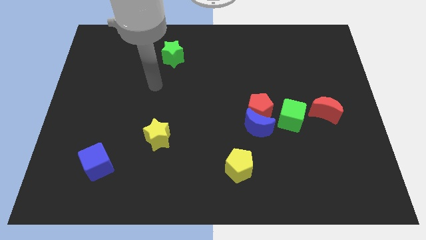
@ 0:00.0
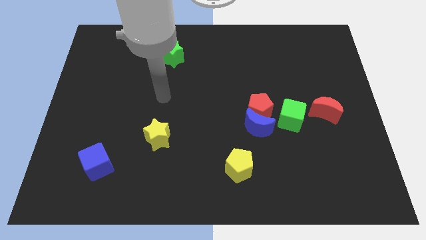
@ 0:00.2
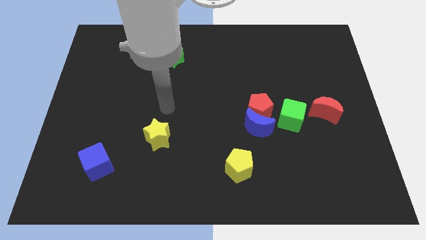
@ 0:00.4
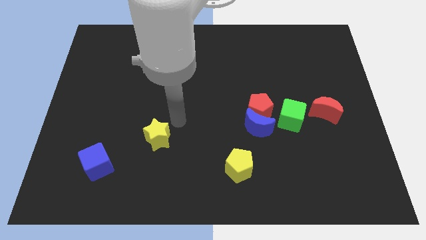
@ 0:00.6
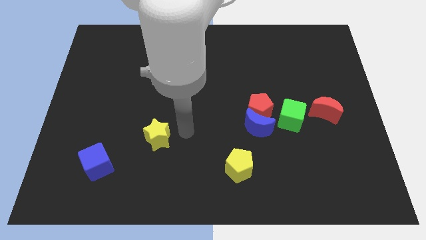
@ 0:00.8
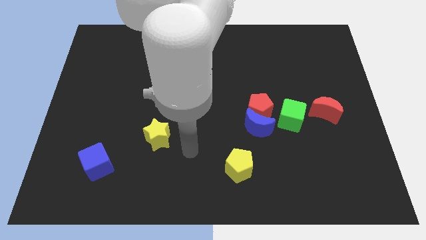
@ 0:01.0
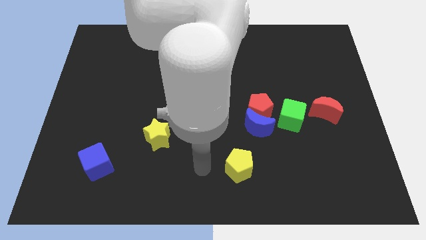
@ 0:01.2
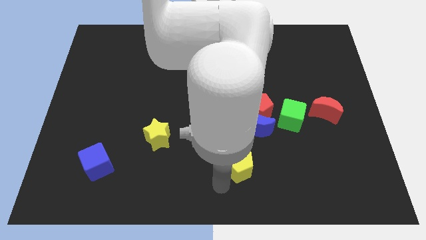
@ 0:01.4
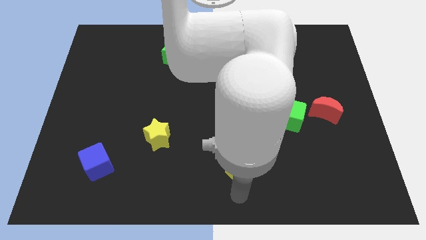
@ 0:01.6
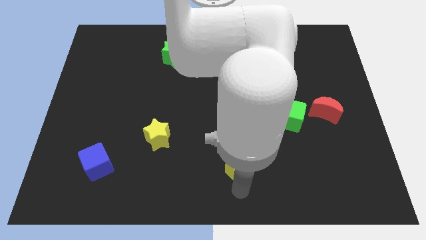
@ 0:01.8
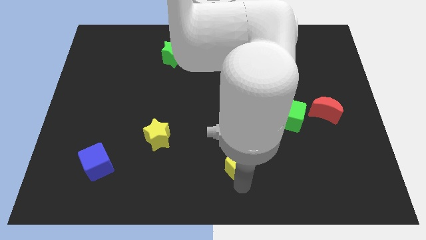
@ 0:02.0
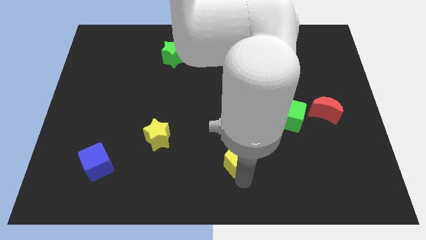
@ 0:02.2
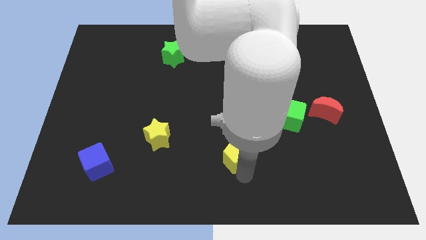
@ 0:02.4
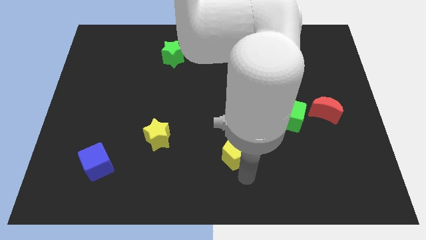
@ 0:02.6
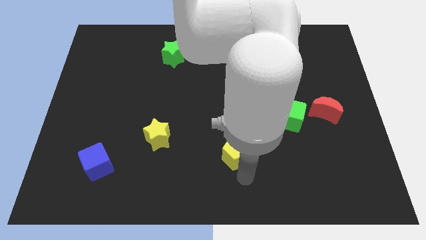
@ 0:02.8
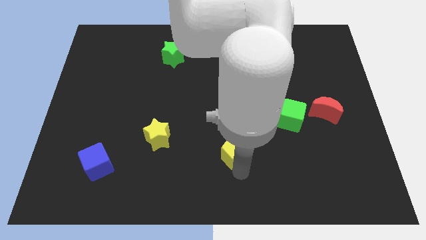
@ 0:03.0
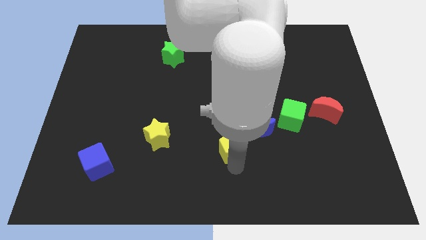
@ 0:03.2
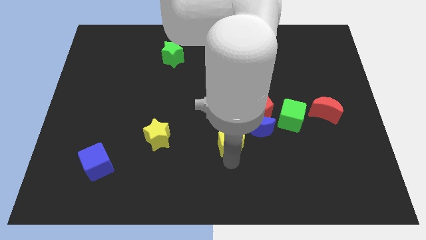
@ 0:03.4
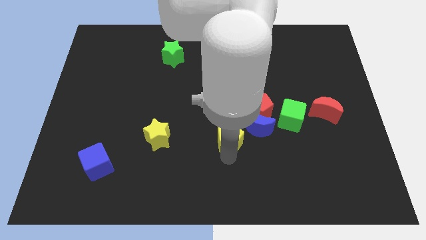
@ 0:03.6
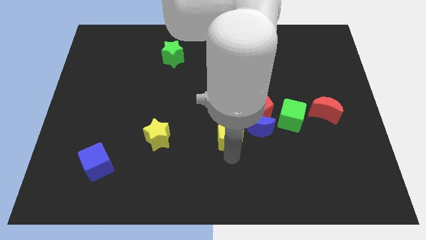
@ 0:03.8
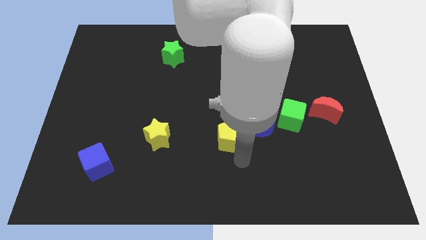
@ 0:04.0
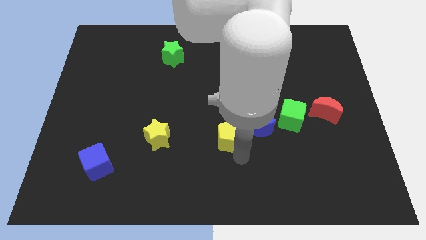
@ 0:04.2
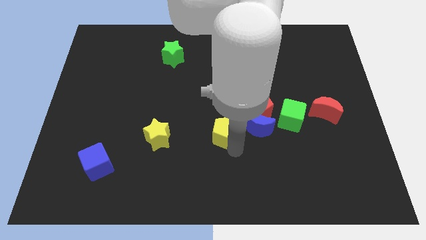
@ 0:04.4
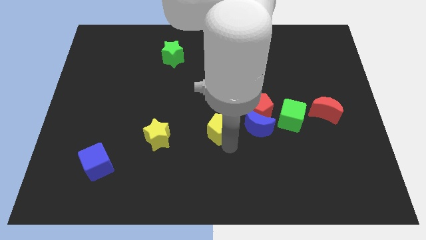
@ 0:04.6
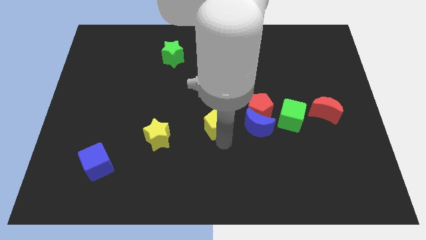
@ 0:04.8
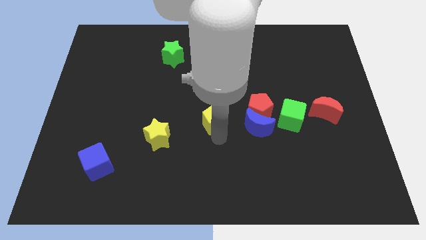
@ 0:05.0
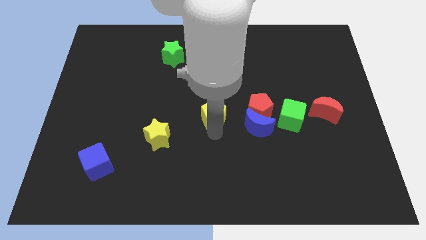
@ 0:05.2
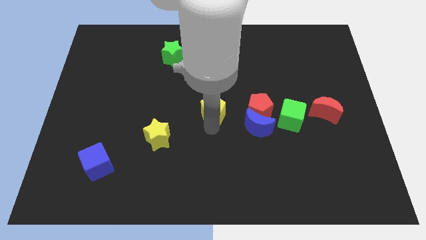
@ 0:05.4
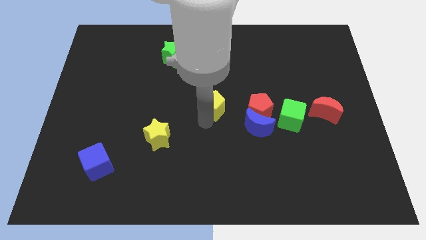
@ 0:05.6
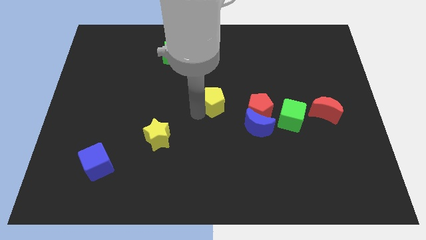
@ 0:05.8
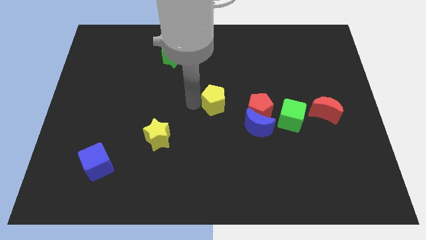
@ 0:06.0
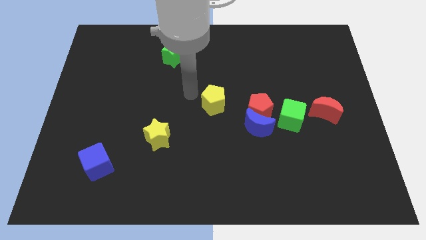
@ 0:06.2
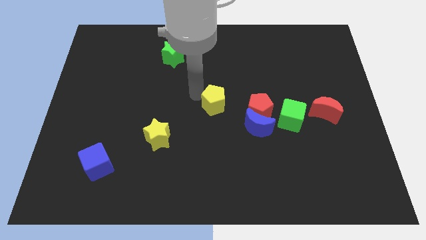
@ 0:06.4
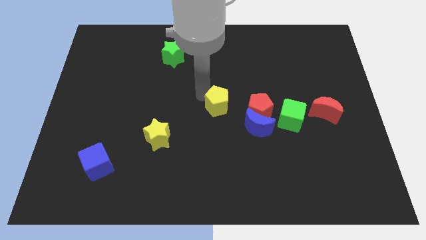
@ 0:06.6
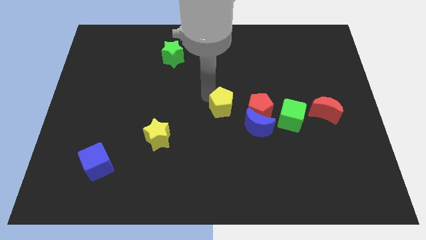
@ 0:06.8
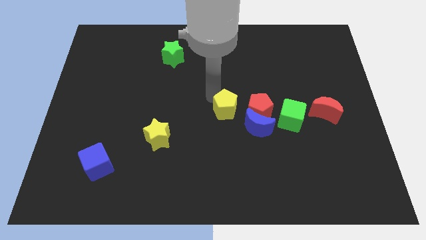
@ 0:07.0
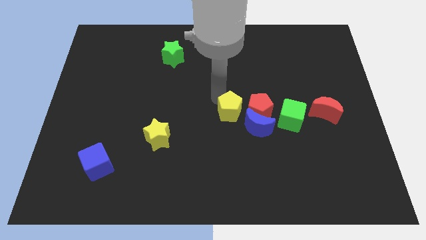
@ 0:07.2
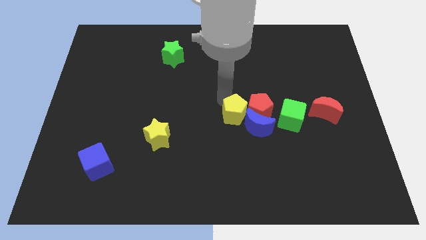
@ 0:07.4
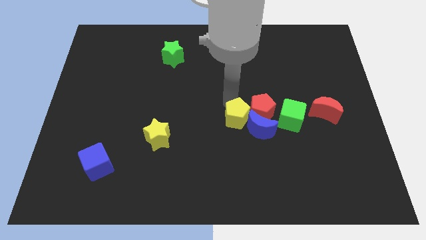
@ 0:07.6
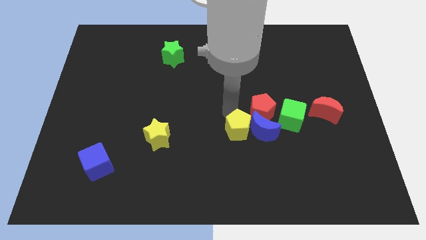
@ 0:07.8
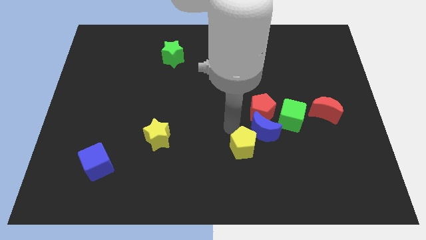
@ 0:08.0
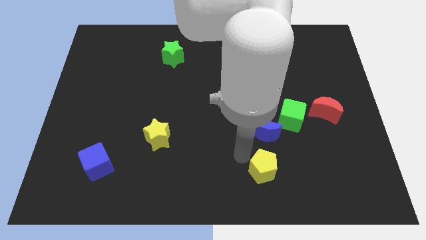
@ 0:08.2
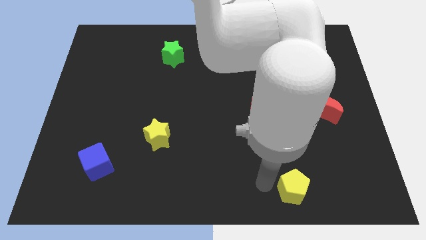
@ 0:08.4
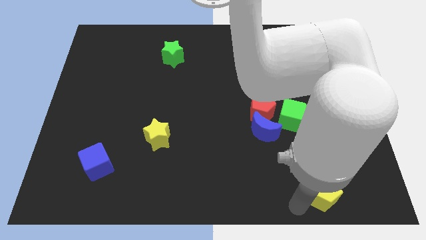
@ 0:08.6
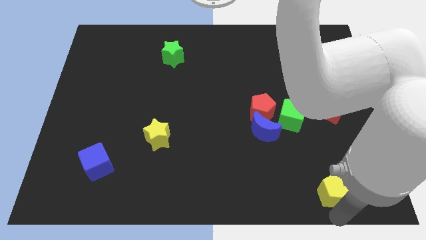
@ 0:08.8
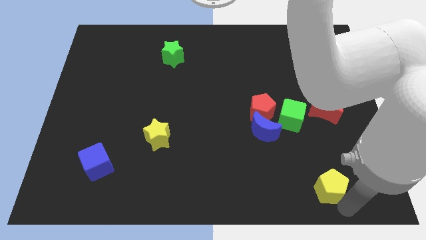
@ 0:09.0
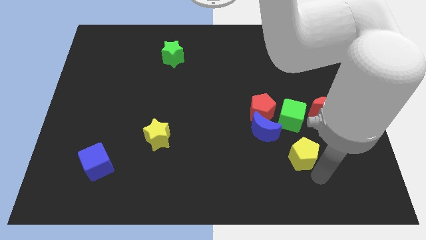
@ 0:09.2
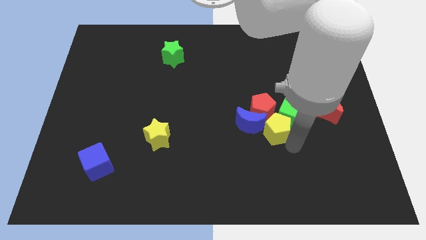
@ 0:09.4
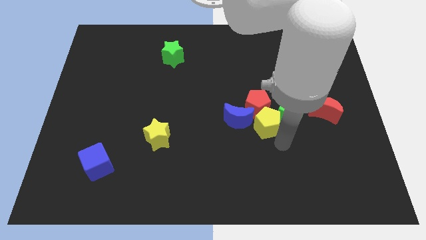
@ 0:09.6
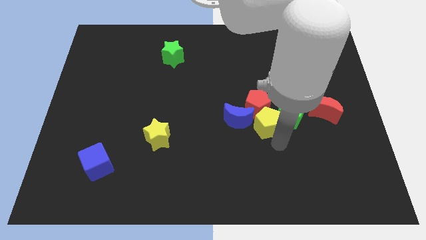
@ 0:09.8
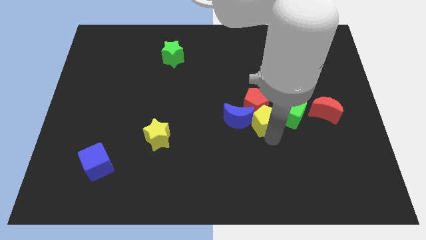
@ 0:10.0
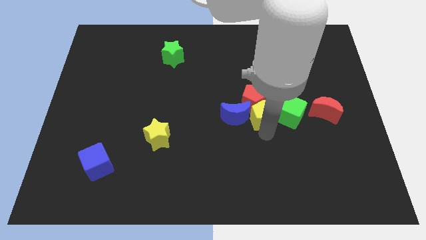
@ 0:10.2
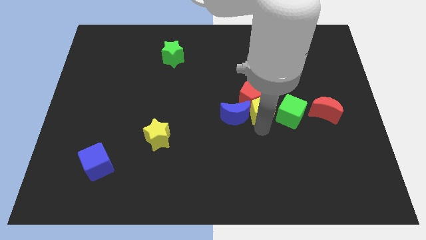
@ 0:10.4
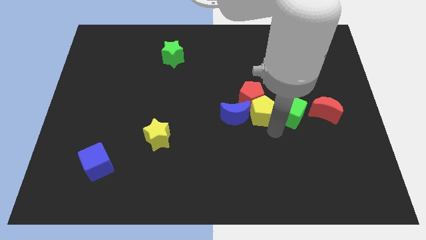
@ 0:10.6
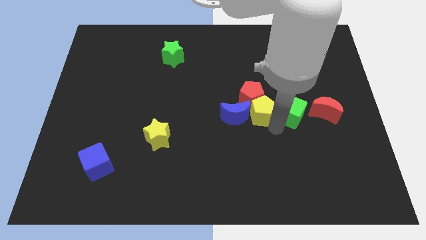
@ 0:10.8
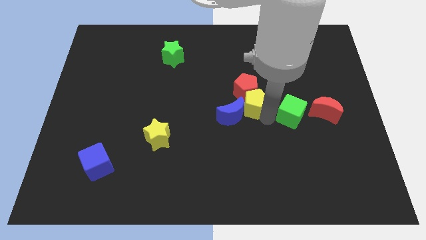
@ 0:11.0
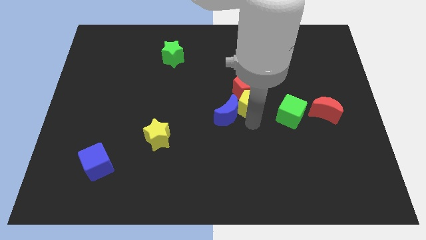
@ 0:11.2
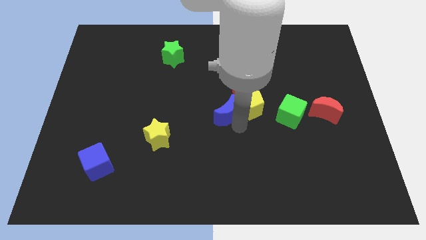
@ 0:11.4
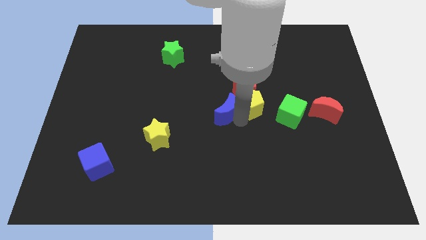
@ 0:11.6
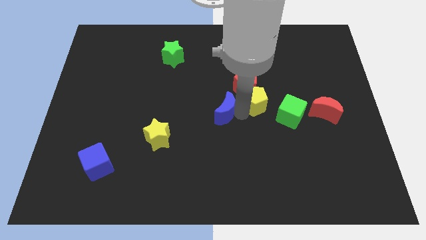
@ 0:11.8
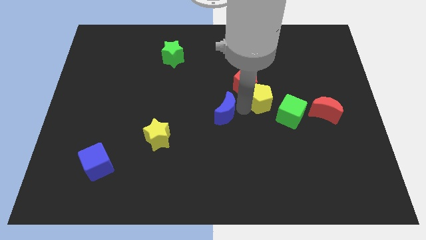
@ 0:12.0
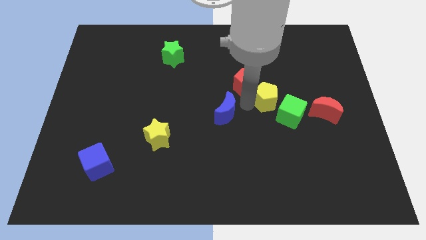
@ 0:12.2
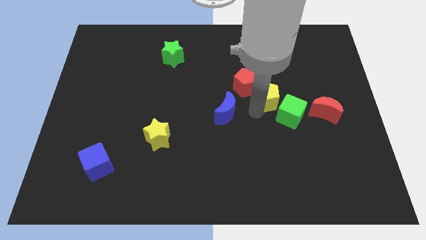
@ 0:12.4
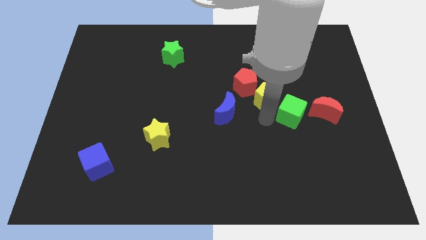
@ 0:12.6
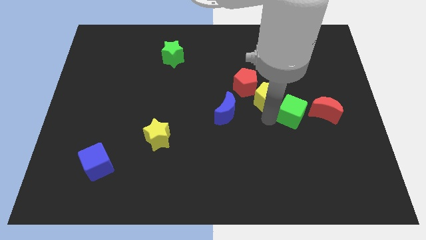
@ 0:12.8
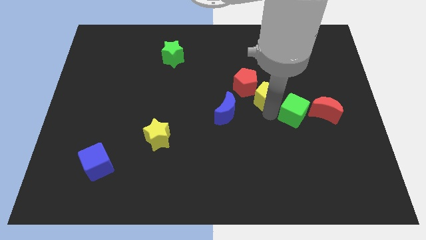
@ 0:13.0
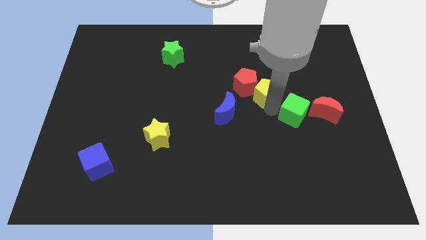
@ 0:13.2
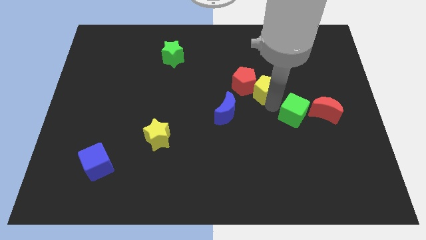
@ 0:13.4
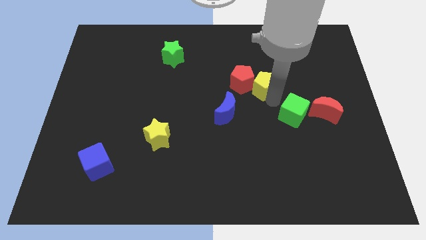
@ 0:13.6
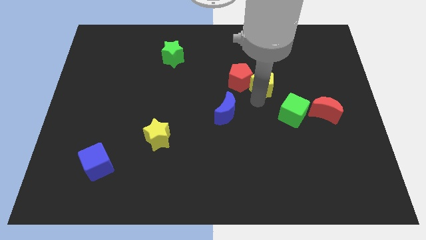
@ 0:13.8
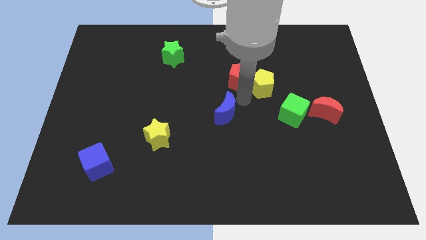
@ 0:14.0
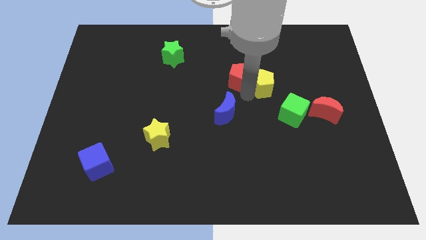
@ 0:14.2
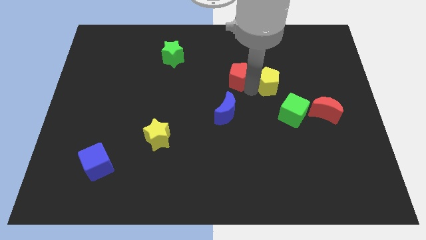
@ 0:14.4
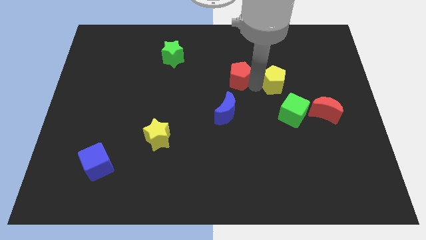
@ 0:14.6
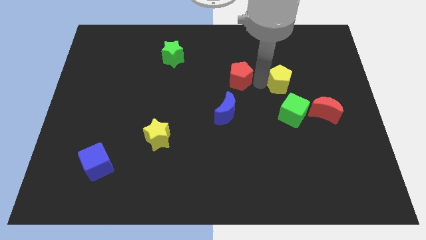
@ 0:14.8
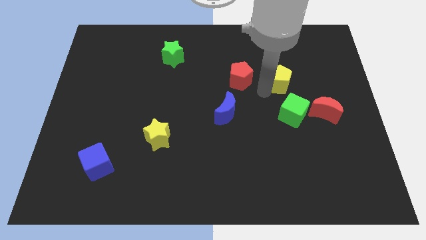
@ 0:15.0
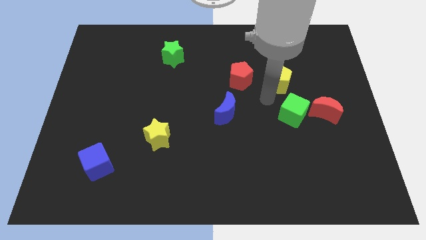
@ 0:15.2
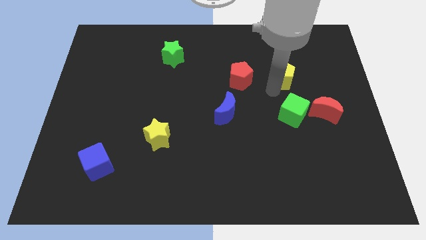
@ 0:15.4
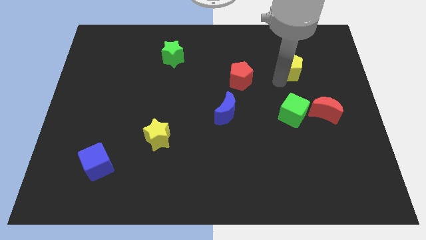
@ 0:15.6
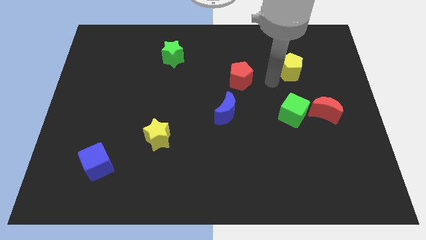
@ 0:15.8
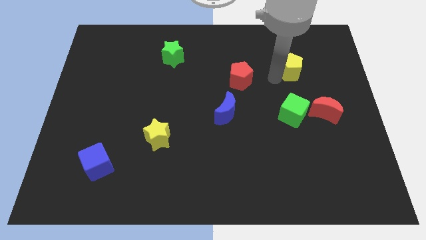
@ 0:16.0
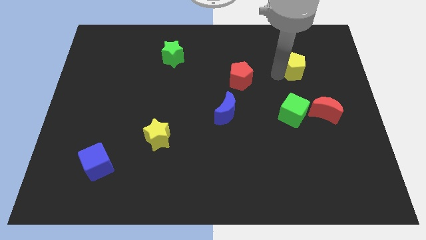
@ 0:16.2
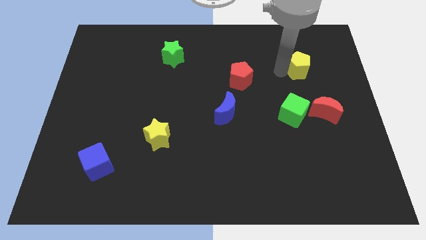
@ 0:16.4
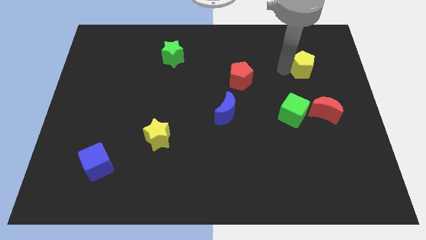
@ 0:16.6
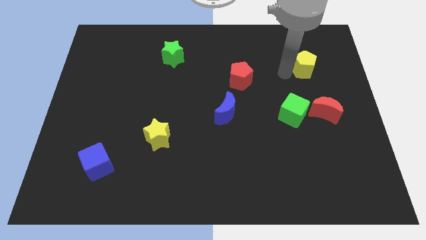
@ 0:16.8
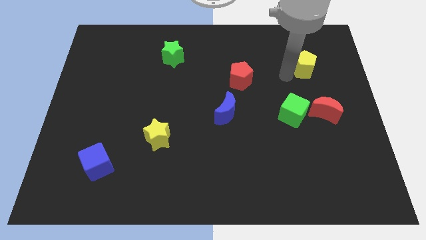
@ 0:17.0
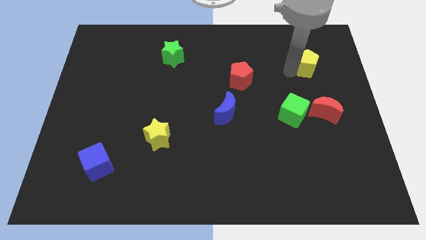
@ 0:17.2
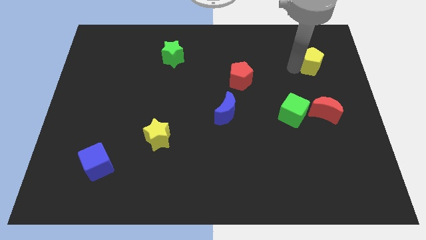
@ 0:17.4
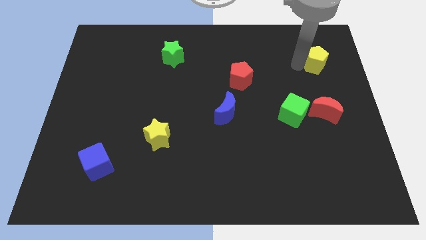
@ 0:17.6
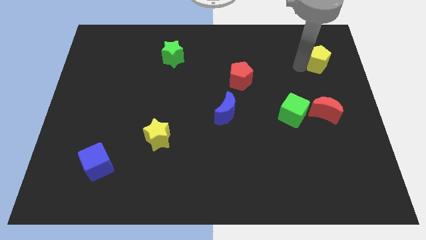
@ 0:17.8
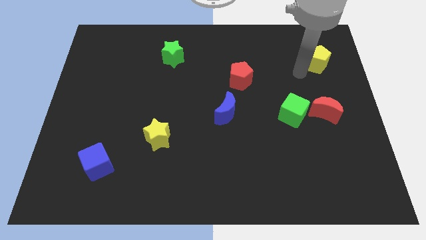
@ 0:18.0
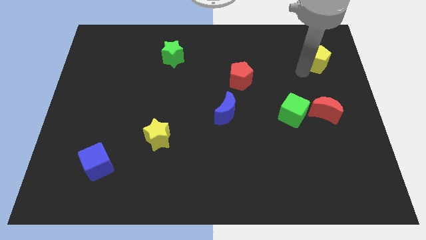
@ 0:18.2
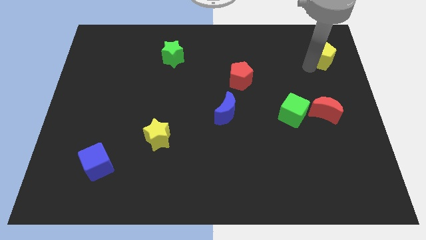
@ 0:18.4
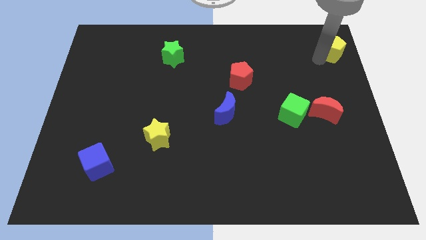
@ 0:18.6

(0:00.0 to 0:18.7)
push the yellow pentagon to the top right corner
